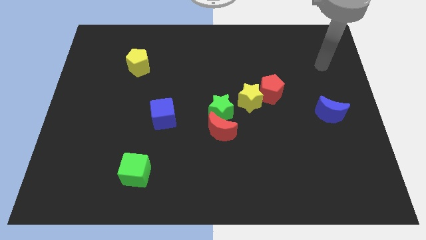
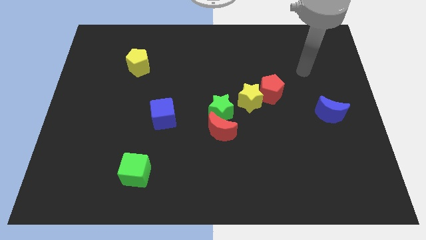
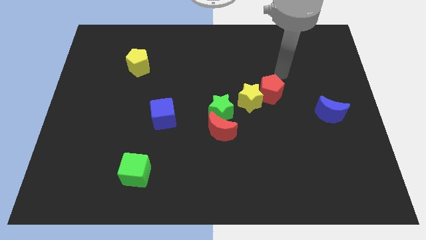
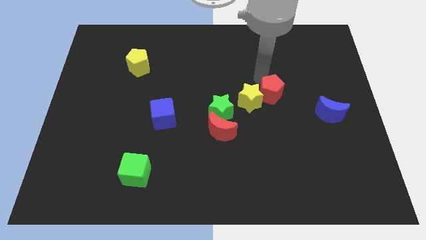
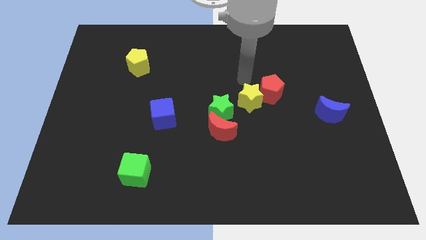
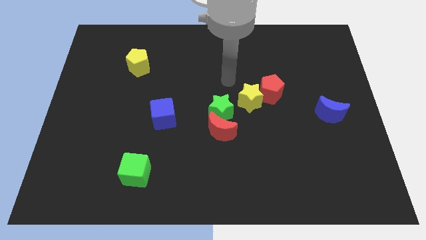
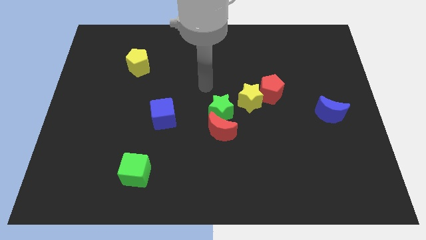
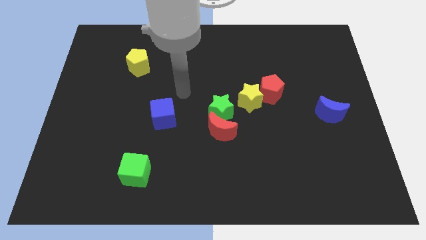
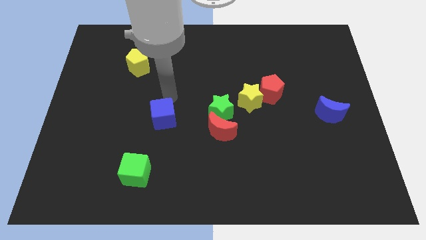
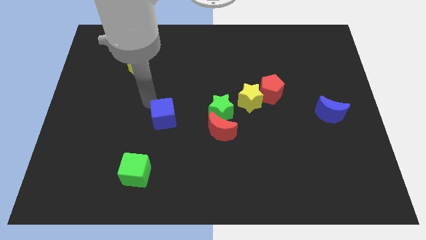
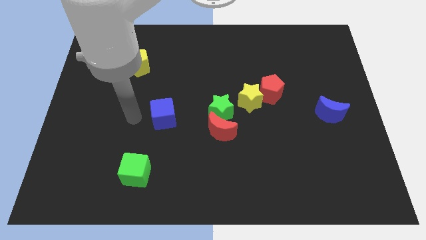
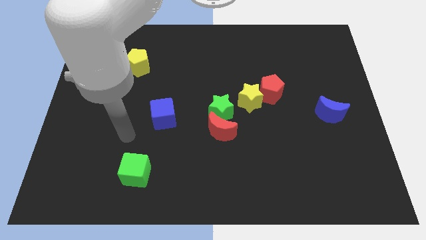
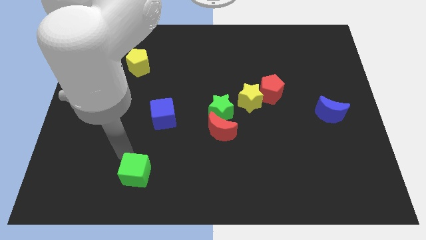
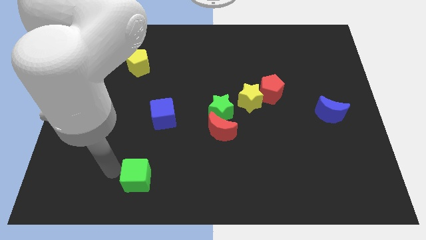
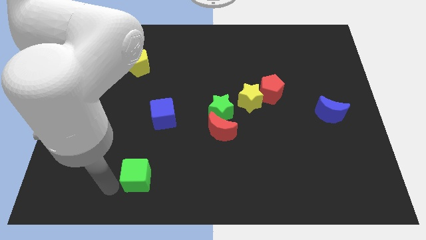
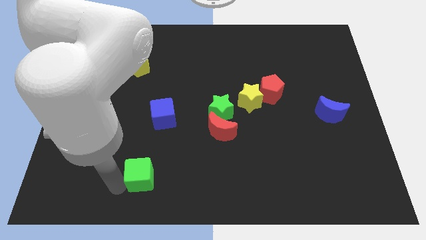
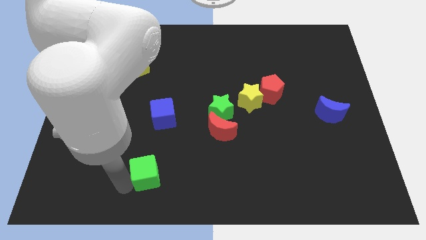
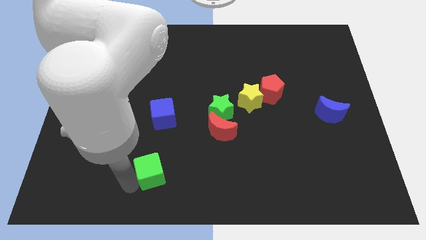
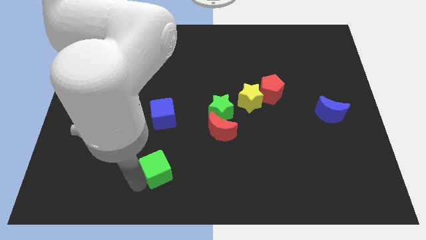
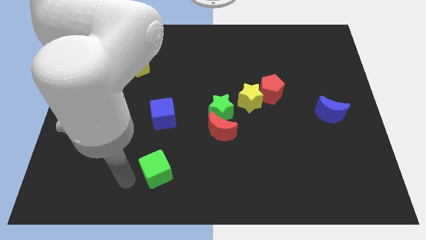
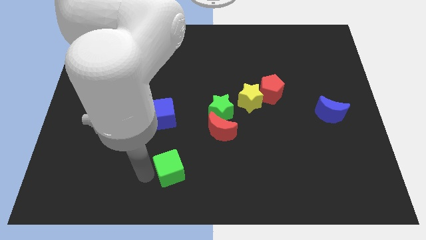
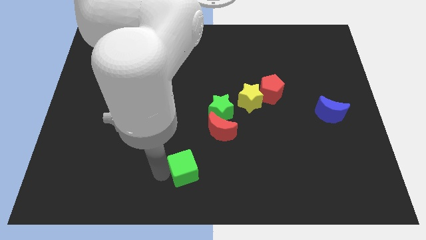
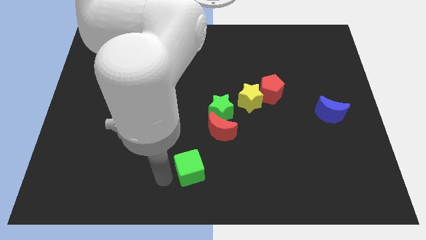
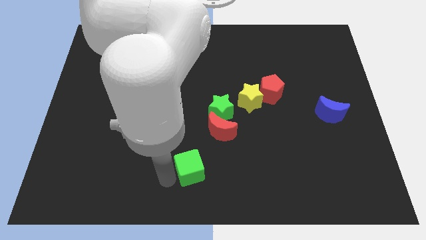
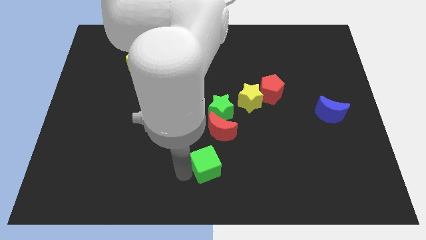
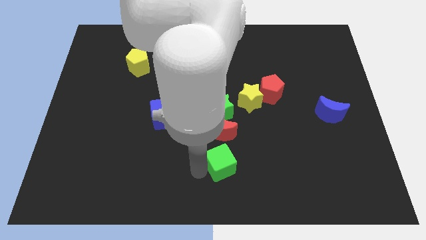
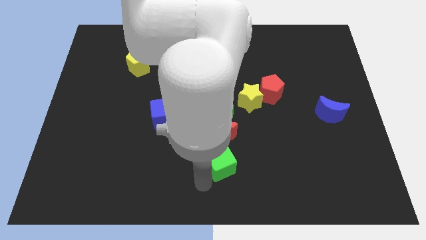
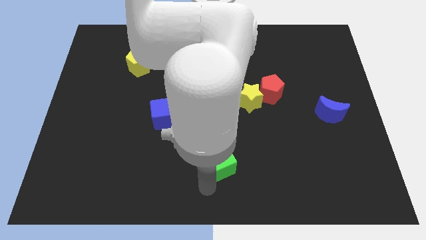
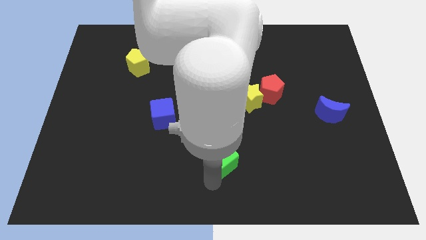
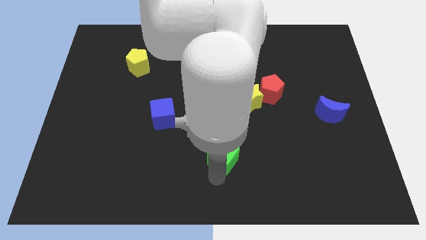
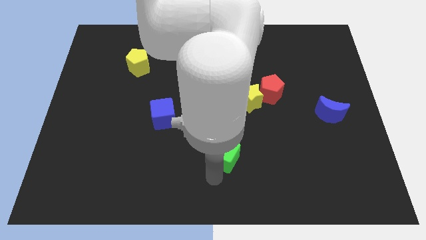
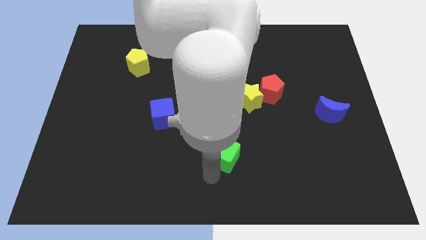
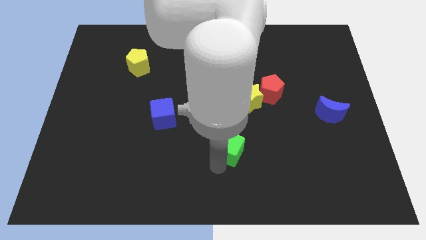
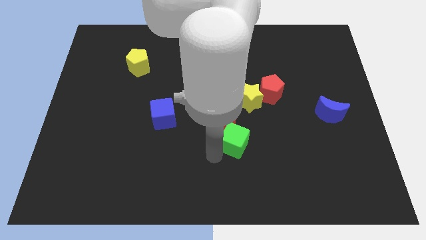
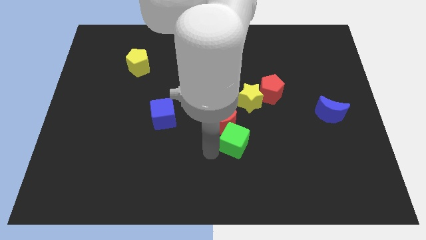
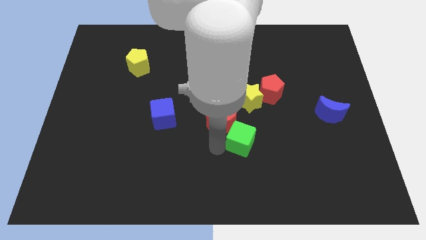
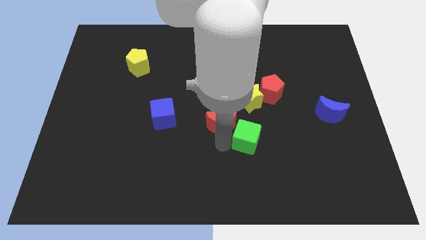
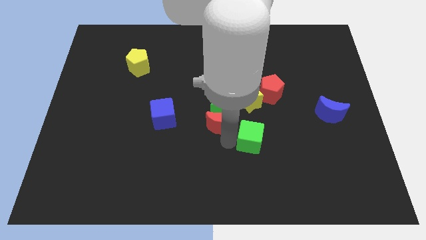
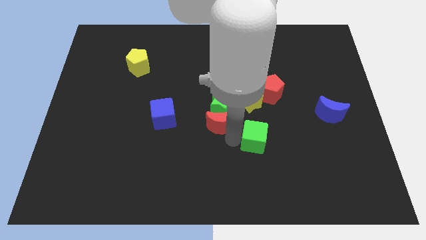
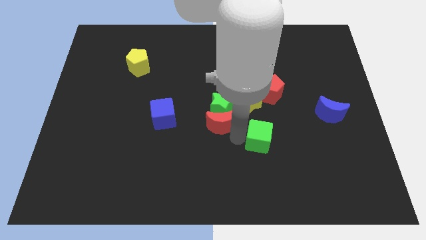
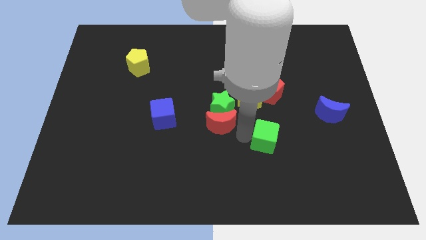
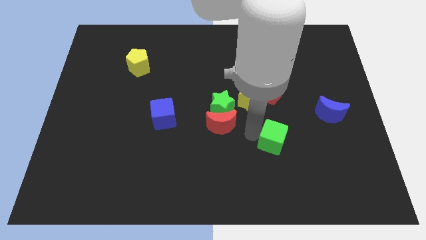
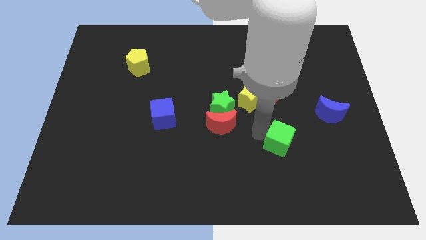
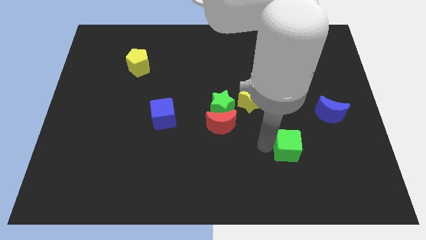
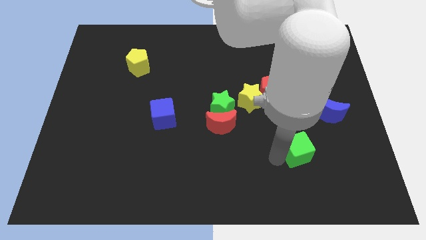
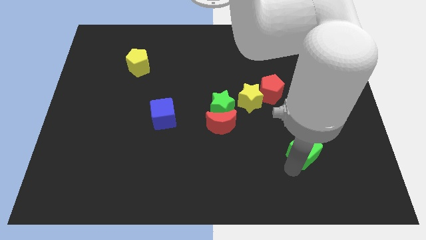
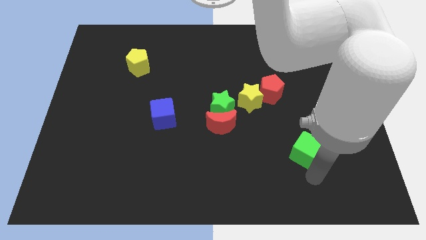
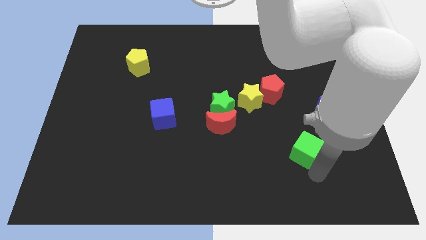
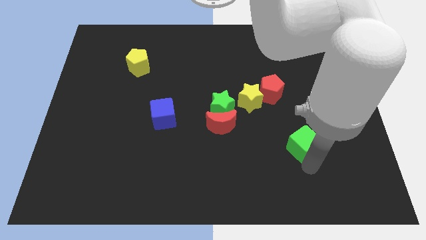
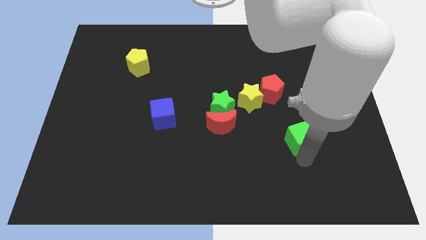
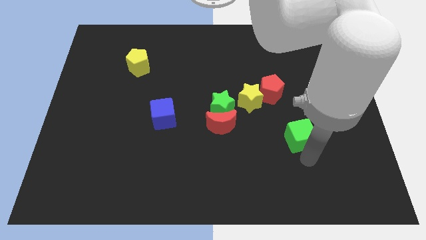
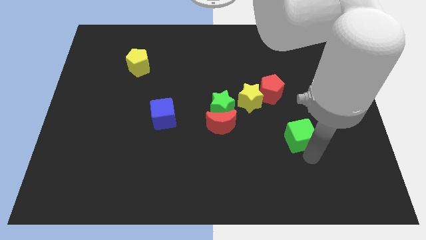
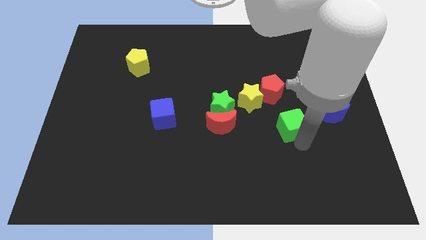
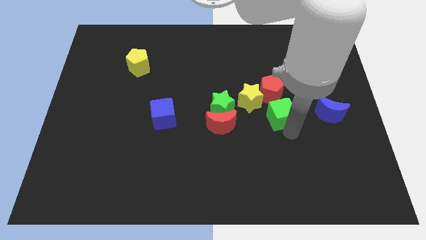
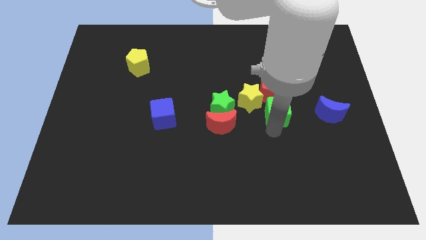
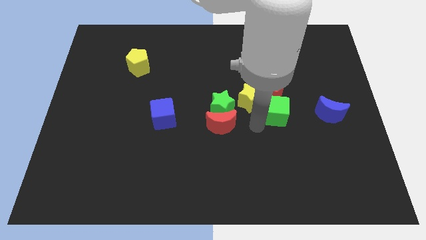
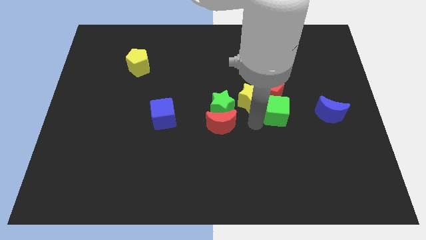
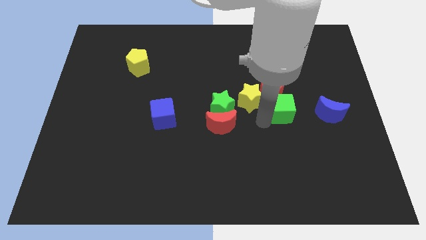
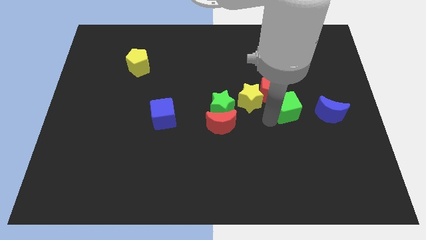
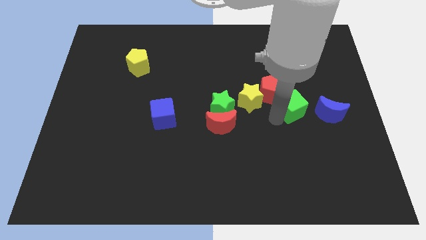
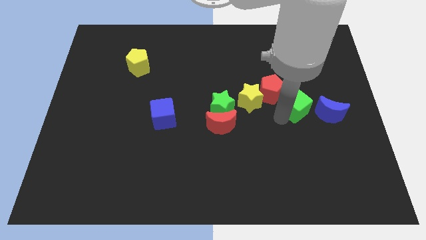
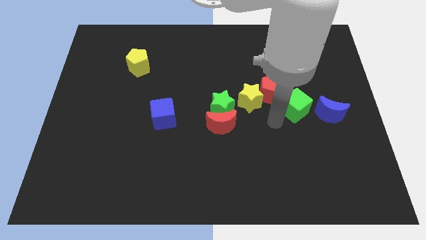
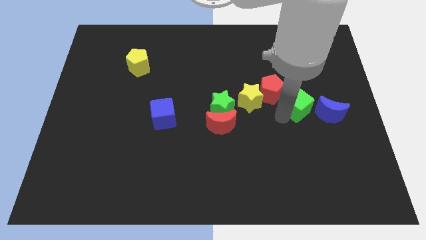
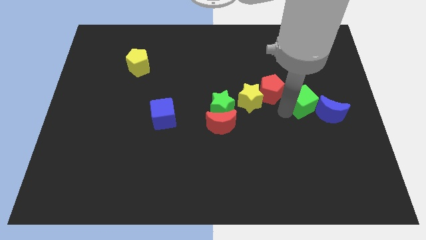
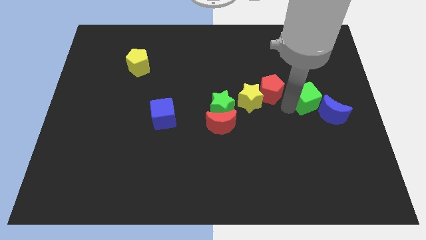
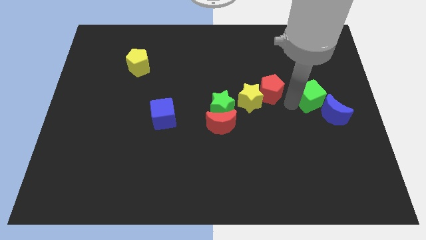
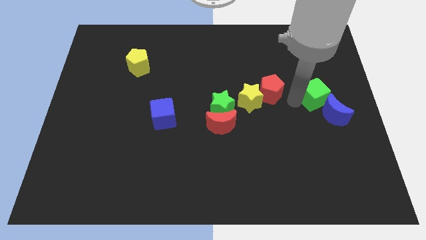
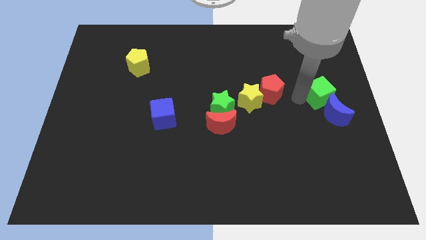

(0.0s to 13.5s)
push the green cube to the center right
